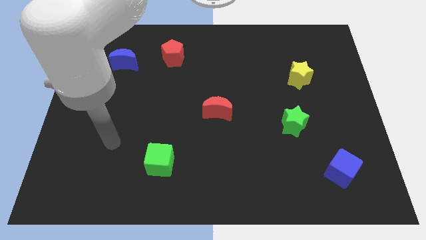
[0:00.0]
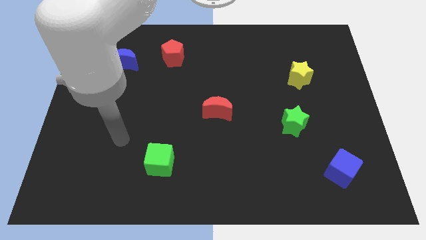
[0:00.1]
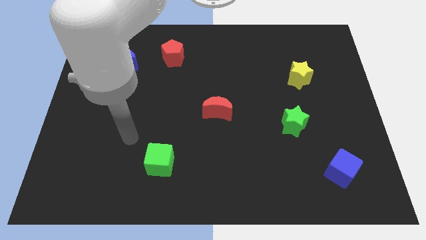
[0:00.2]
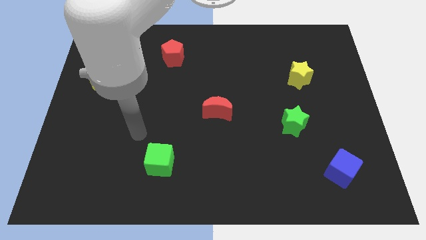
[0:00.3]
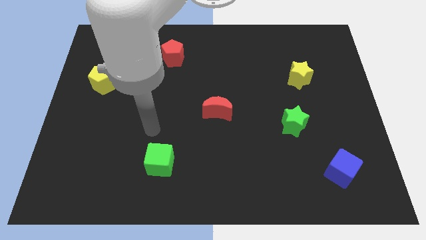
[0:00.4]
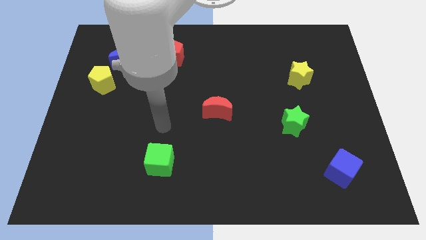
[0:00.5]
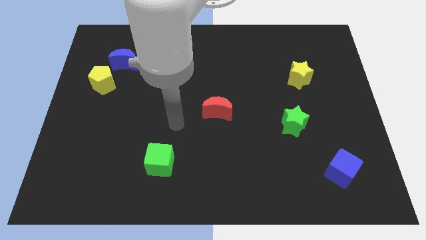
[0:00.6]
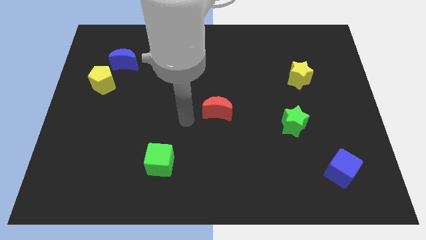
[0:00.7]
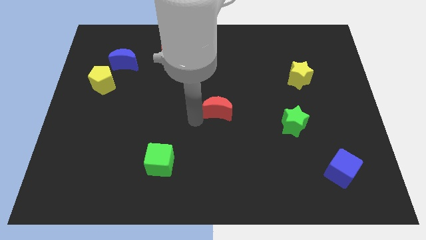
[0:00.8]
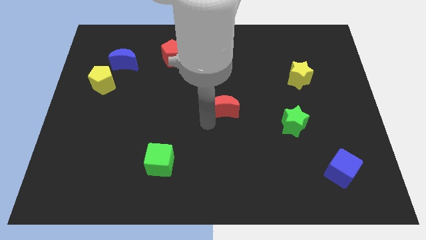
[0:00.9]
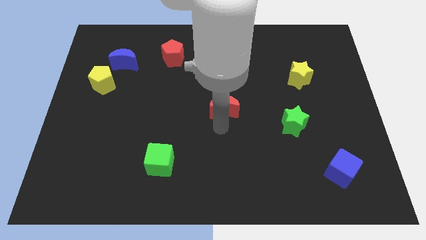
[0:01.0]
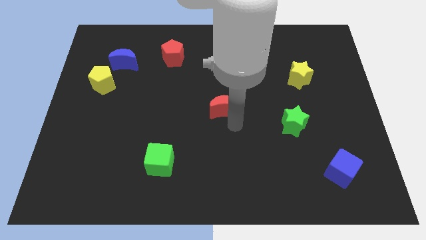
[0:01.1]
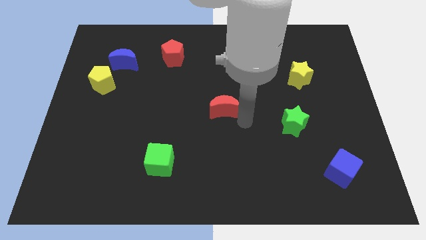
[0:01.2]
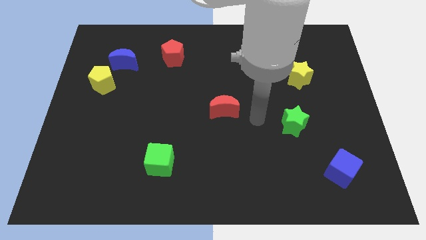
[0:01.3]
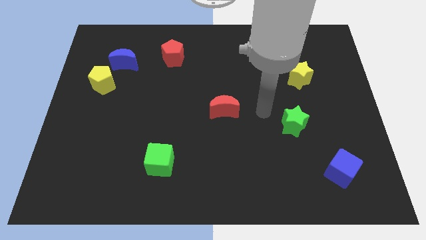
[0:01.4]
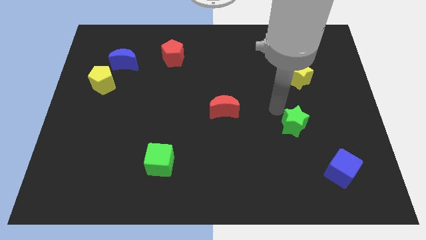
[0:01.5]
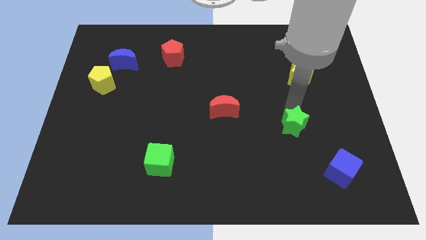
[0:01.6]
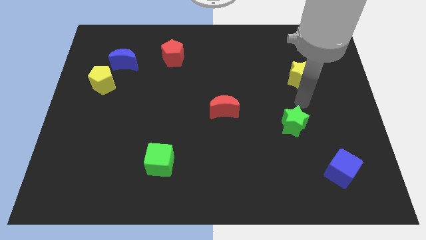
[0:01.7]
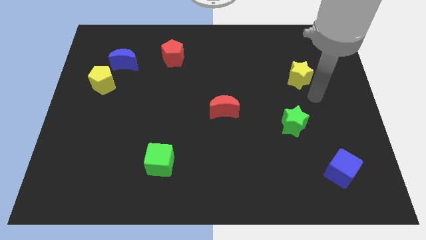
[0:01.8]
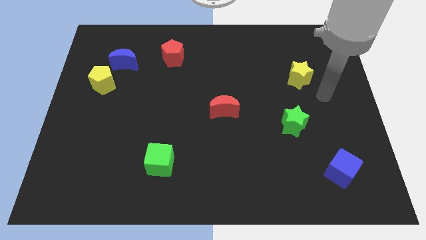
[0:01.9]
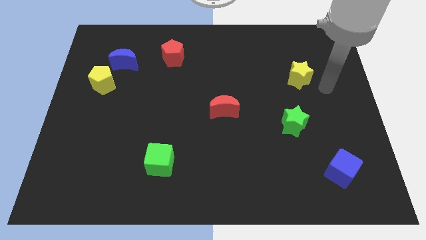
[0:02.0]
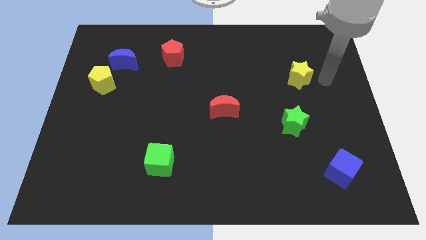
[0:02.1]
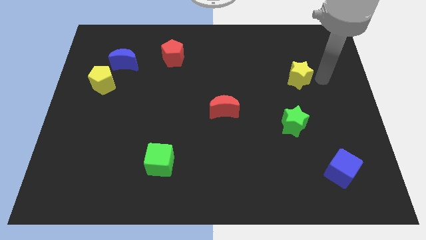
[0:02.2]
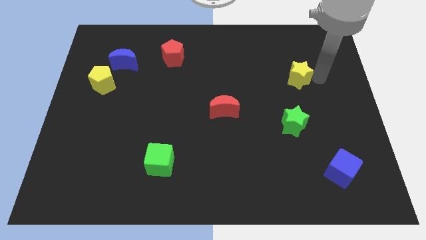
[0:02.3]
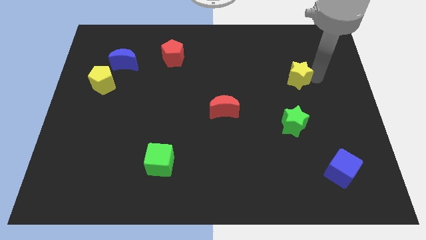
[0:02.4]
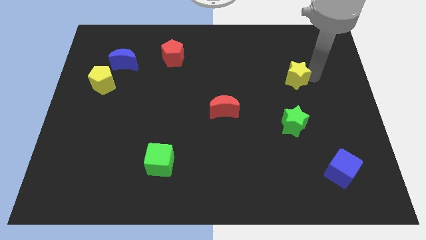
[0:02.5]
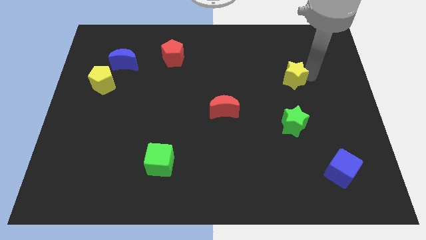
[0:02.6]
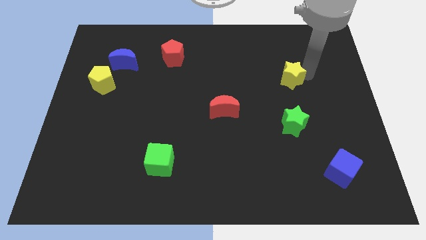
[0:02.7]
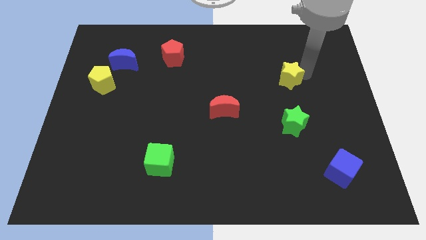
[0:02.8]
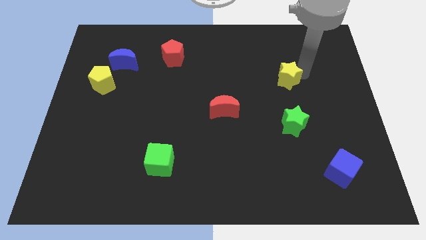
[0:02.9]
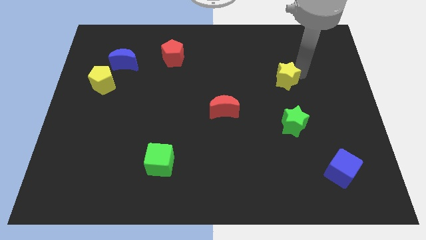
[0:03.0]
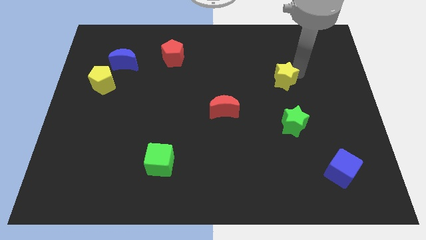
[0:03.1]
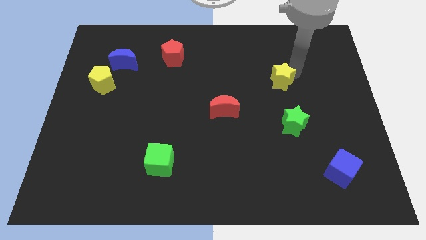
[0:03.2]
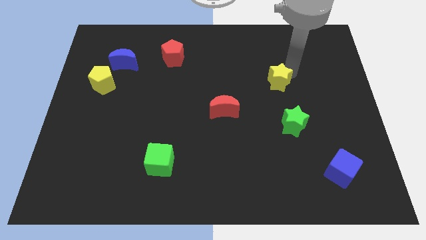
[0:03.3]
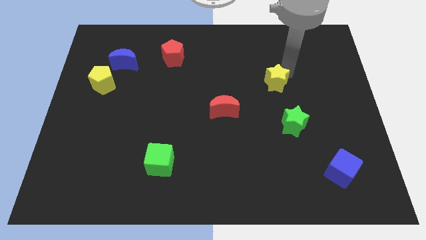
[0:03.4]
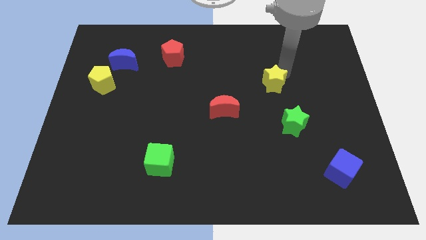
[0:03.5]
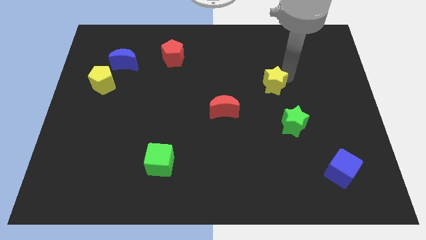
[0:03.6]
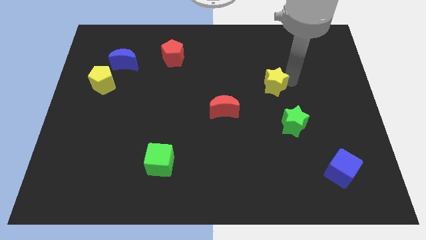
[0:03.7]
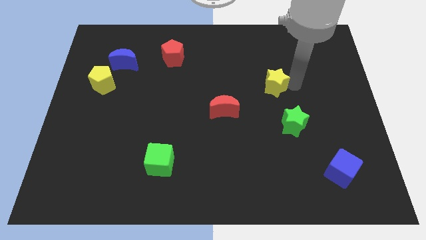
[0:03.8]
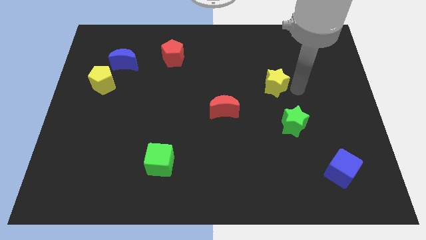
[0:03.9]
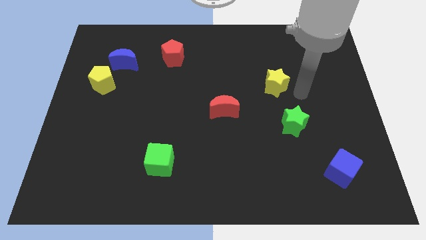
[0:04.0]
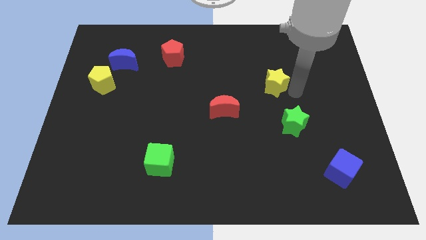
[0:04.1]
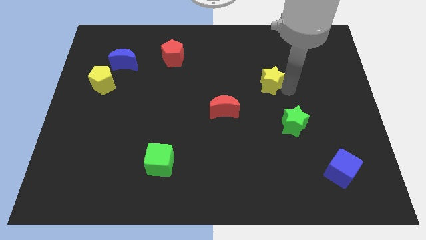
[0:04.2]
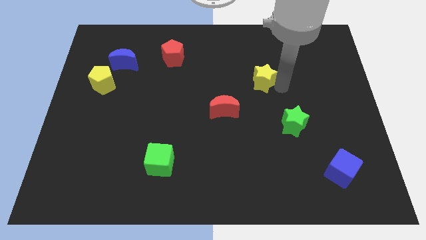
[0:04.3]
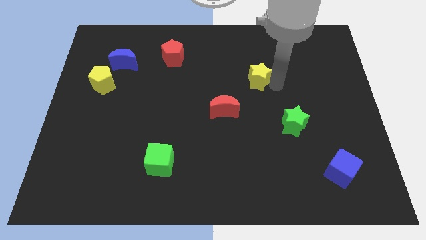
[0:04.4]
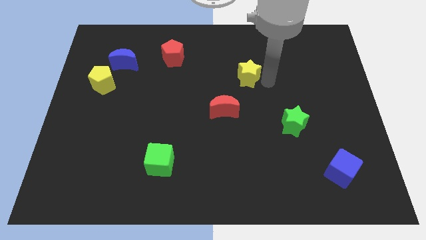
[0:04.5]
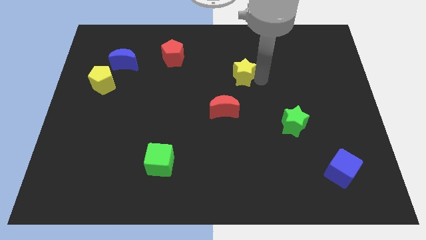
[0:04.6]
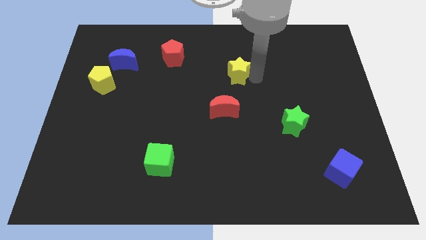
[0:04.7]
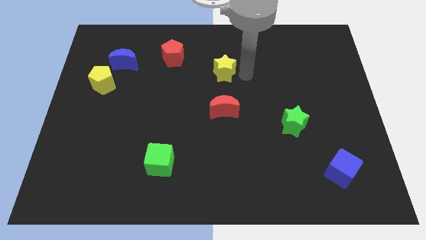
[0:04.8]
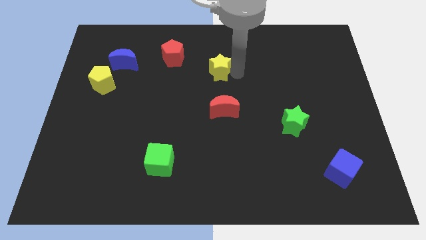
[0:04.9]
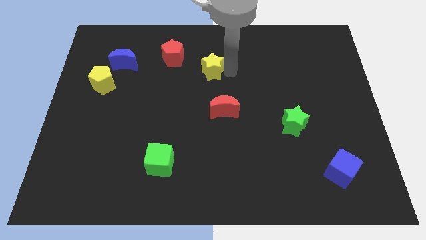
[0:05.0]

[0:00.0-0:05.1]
push the yellow star diagonally down and to the right of the red pentagon

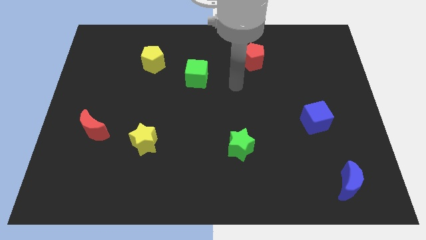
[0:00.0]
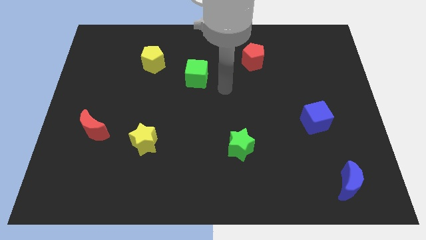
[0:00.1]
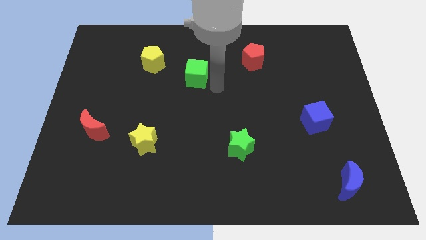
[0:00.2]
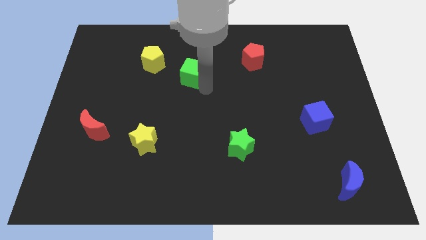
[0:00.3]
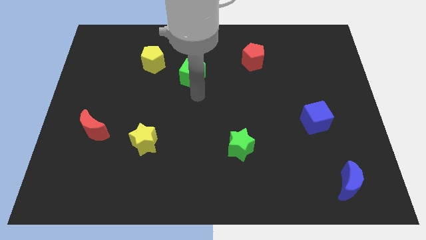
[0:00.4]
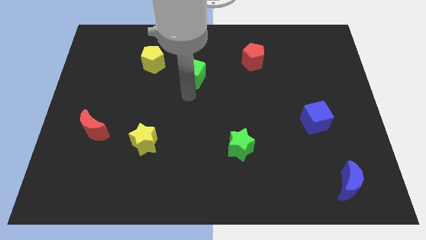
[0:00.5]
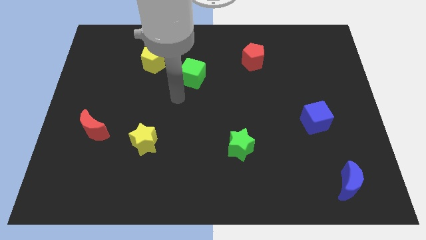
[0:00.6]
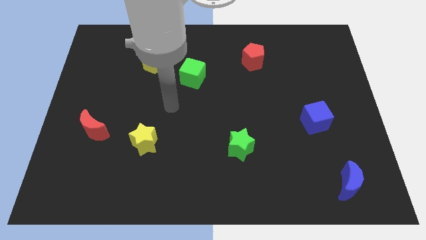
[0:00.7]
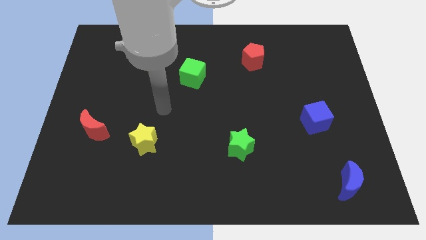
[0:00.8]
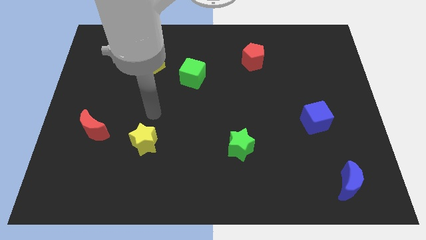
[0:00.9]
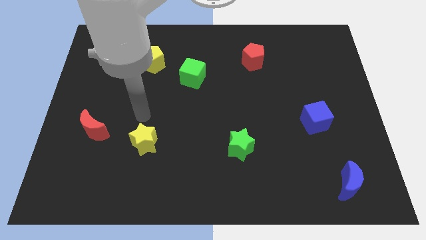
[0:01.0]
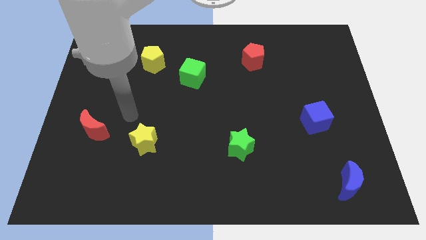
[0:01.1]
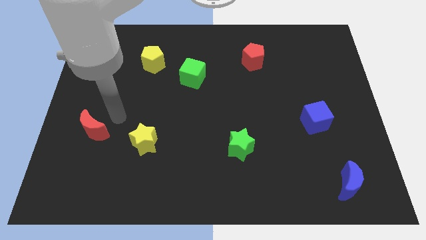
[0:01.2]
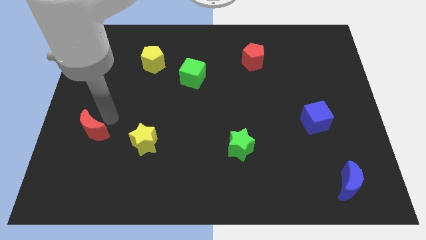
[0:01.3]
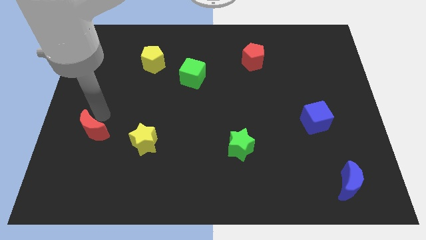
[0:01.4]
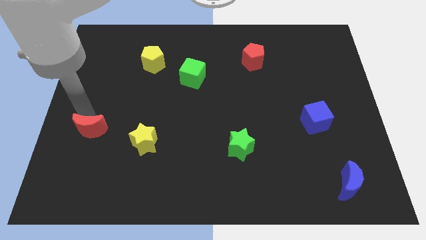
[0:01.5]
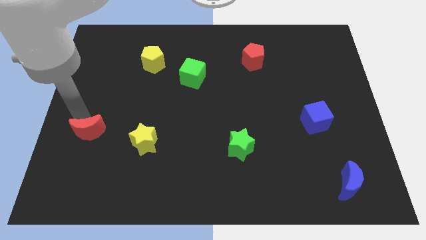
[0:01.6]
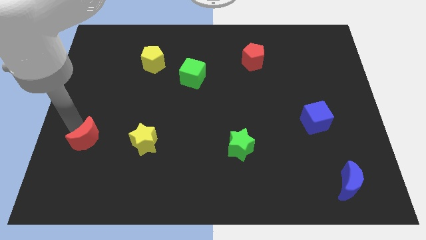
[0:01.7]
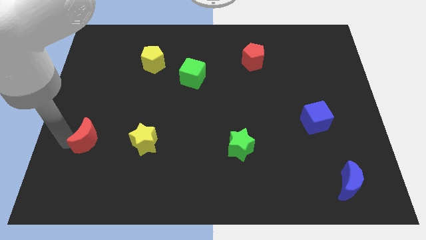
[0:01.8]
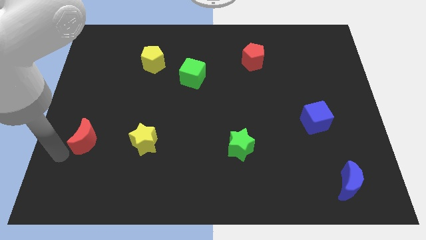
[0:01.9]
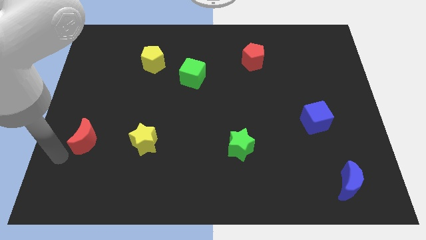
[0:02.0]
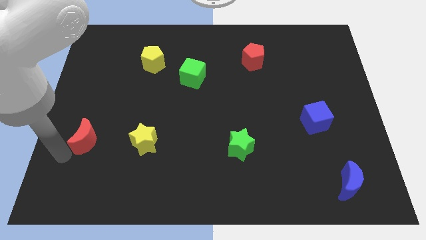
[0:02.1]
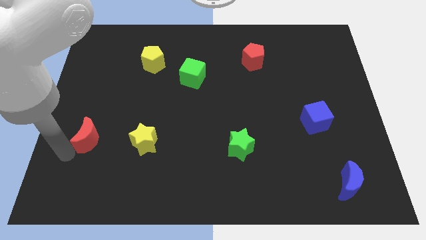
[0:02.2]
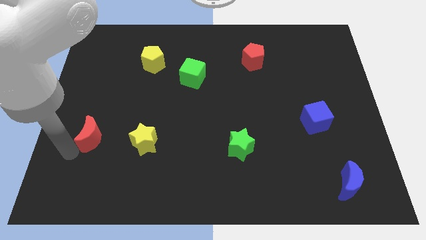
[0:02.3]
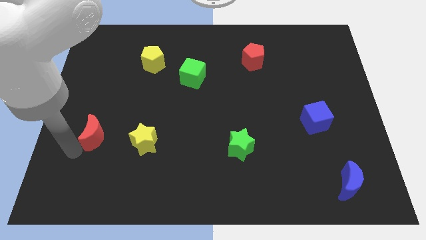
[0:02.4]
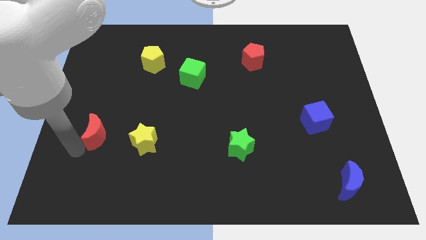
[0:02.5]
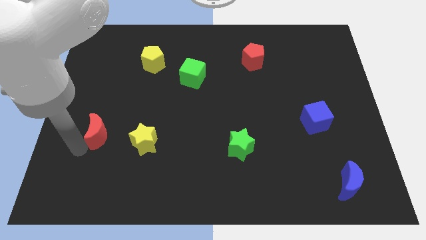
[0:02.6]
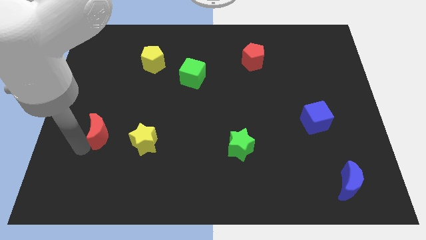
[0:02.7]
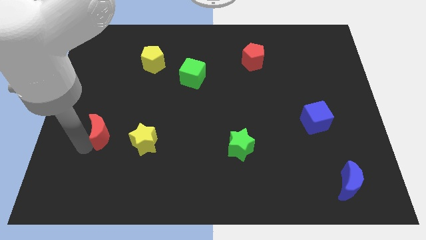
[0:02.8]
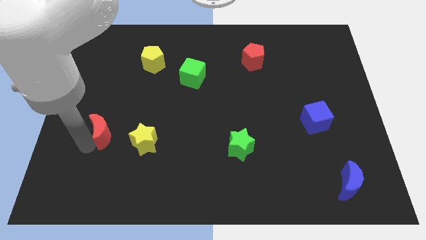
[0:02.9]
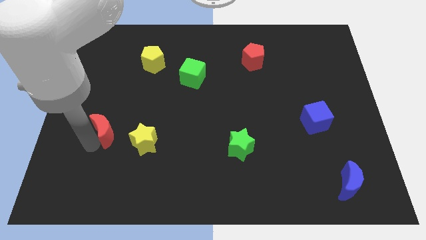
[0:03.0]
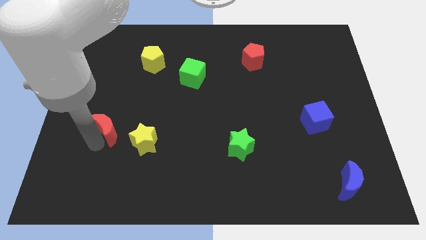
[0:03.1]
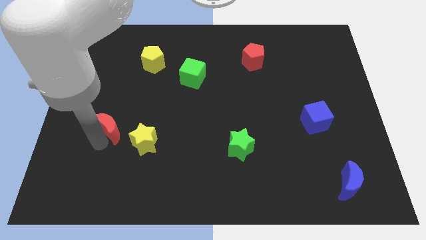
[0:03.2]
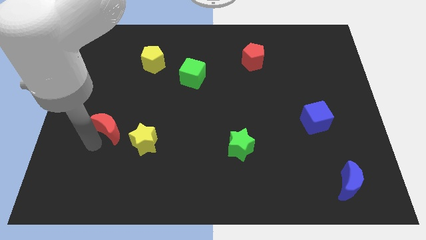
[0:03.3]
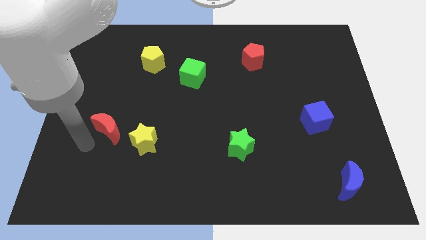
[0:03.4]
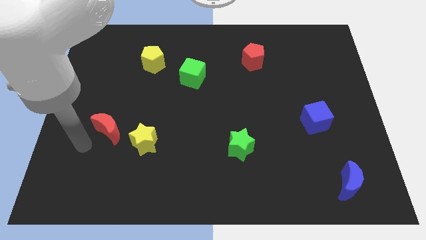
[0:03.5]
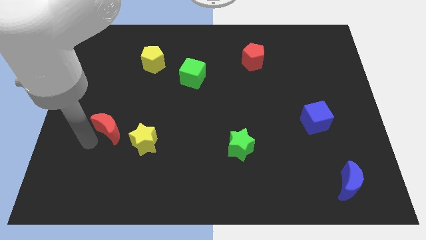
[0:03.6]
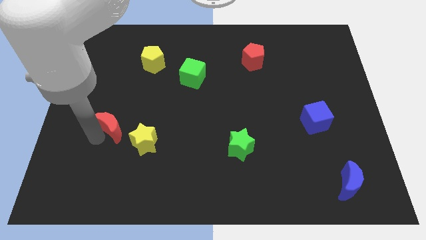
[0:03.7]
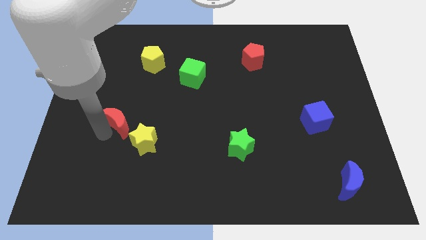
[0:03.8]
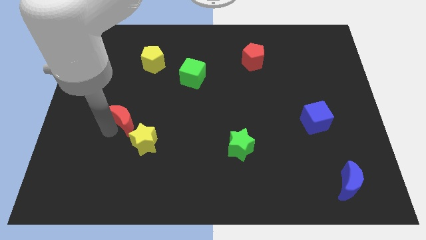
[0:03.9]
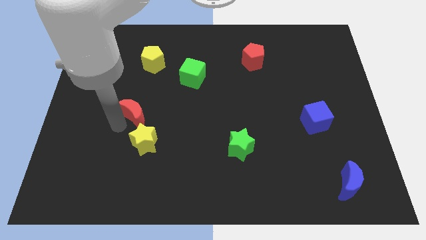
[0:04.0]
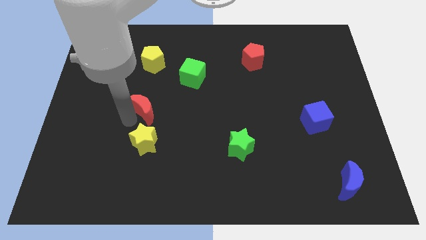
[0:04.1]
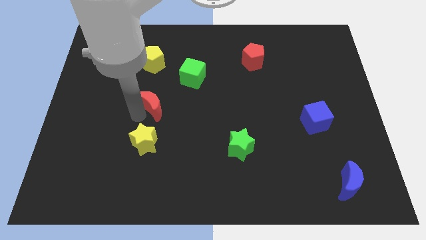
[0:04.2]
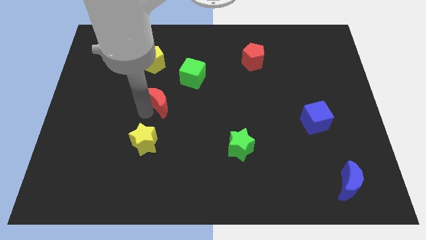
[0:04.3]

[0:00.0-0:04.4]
slide the red moon diagonally down and to the left of the green cube
